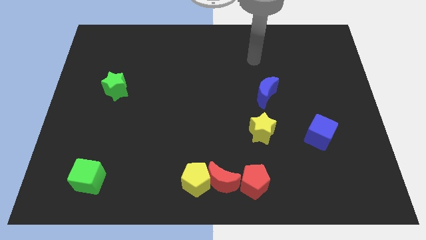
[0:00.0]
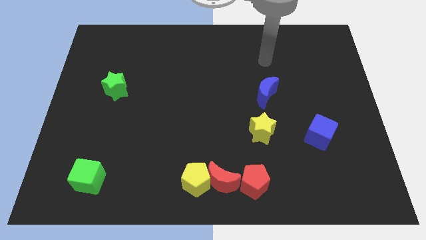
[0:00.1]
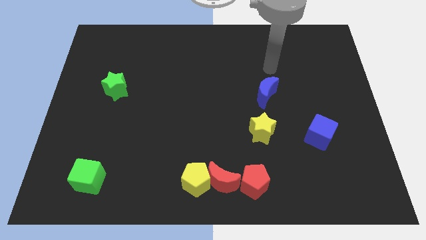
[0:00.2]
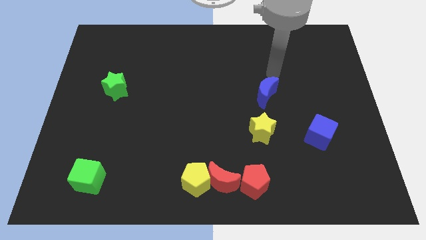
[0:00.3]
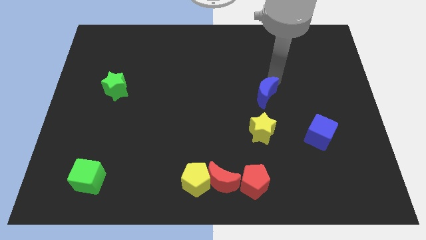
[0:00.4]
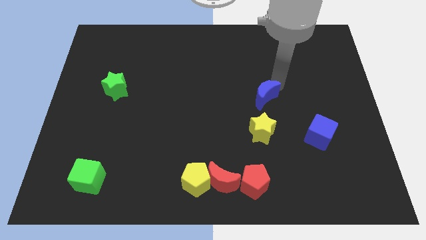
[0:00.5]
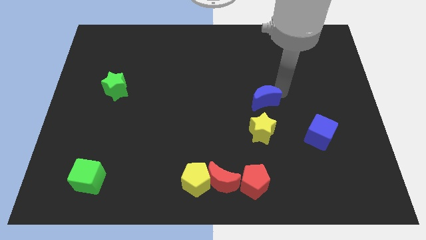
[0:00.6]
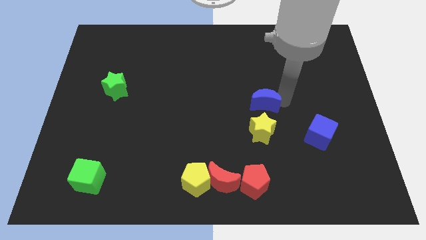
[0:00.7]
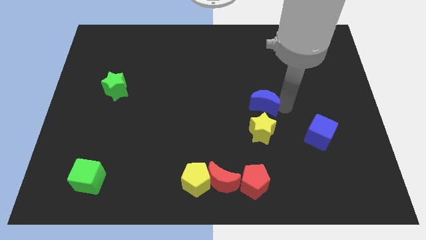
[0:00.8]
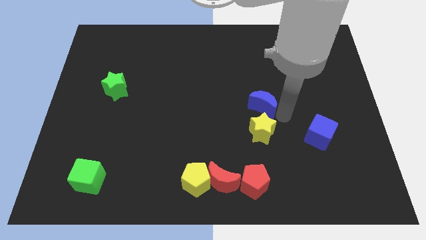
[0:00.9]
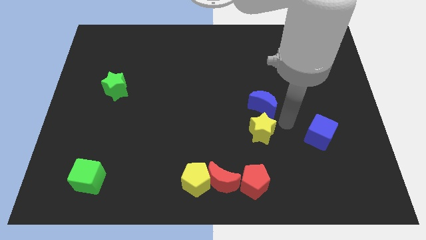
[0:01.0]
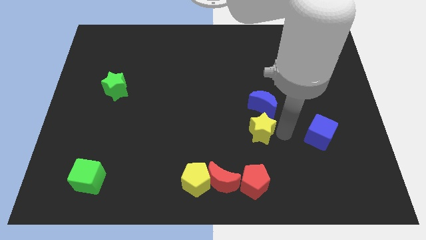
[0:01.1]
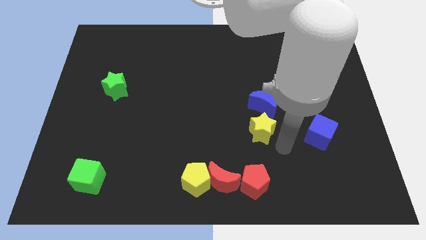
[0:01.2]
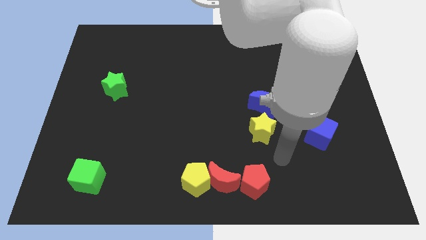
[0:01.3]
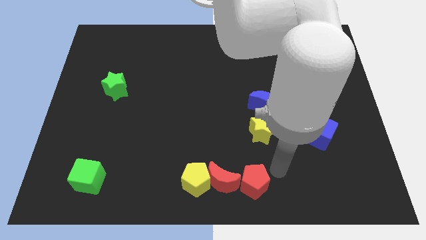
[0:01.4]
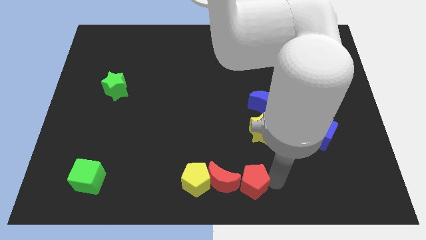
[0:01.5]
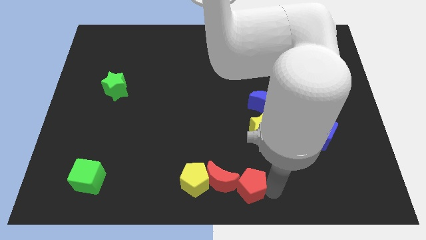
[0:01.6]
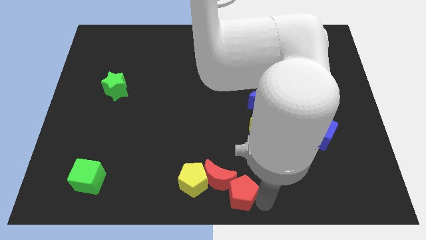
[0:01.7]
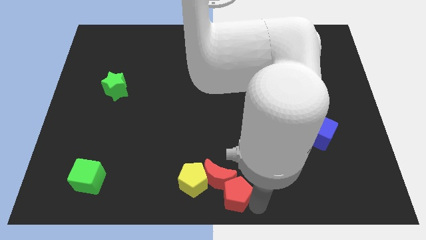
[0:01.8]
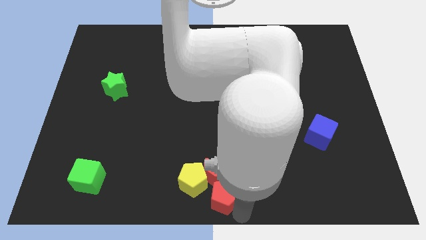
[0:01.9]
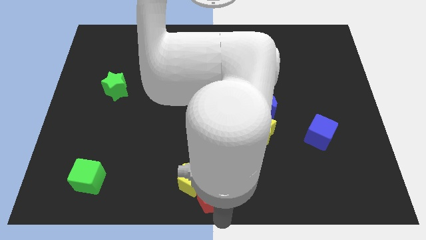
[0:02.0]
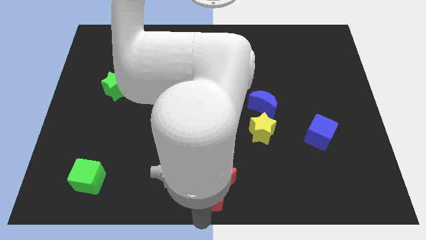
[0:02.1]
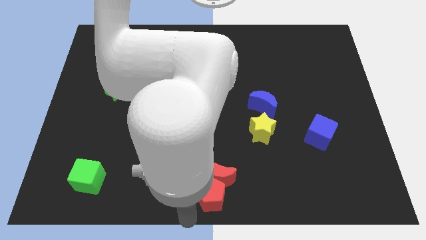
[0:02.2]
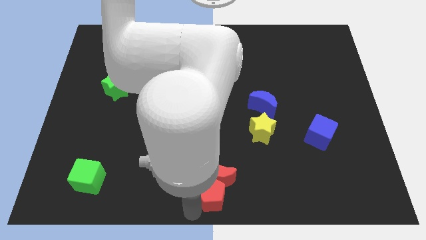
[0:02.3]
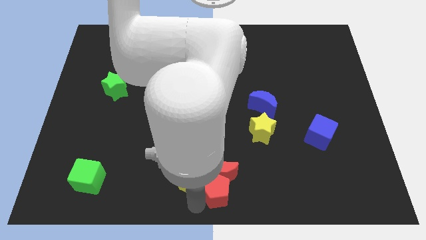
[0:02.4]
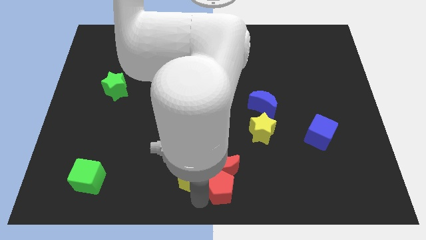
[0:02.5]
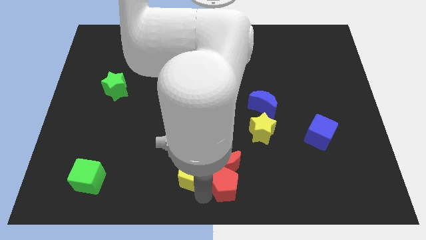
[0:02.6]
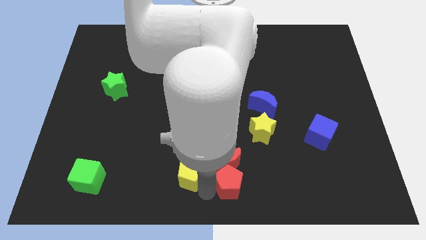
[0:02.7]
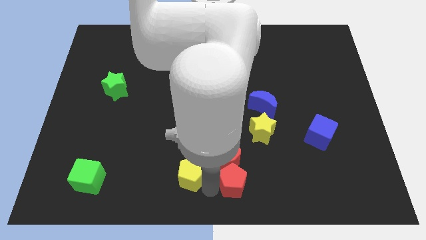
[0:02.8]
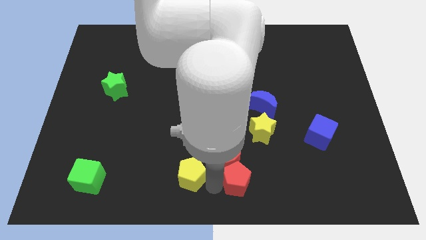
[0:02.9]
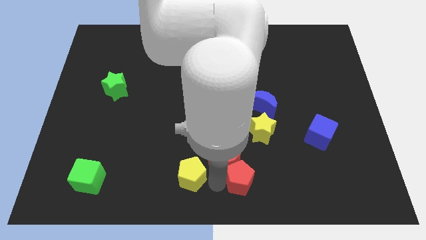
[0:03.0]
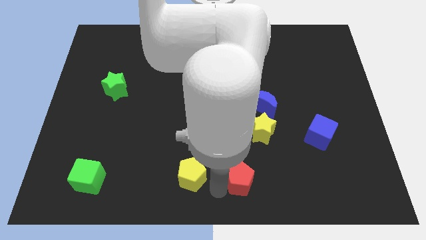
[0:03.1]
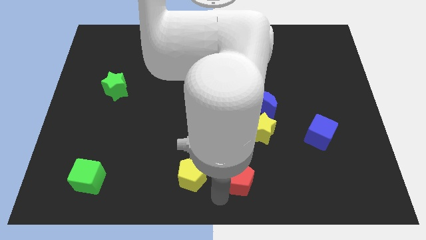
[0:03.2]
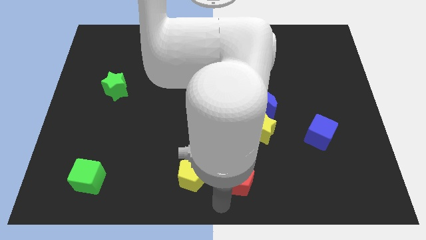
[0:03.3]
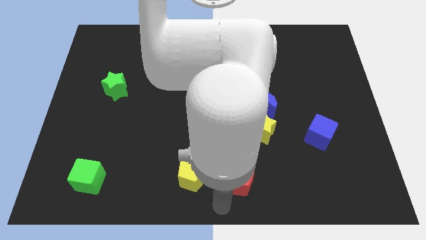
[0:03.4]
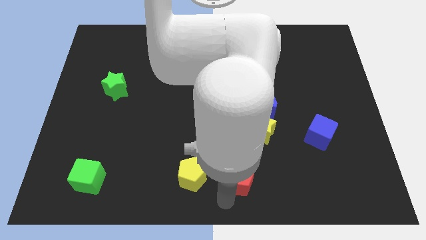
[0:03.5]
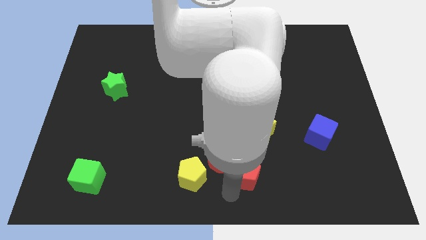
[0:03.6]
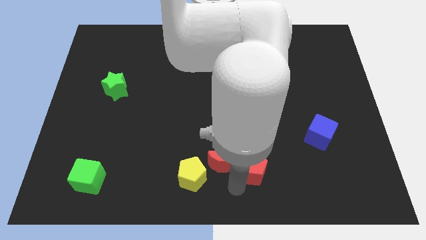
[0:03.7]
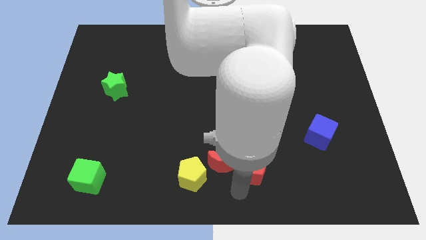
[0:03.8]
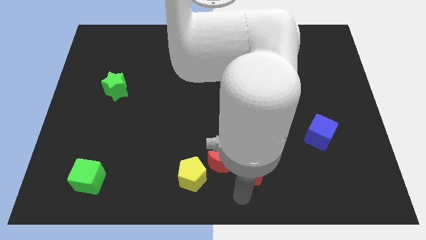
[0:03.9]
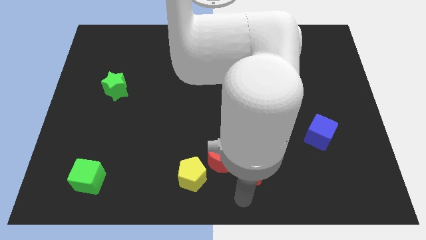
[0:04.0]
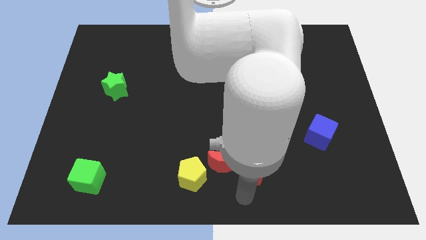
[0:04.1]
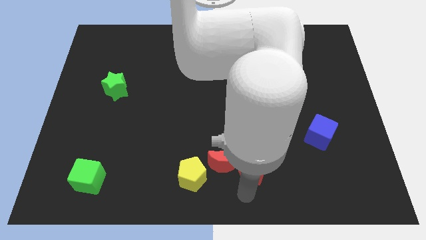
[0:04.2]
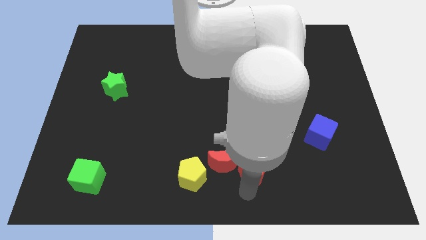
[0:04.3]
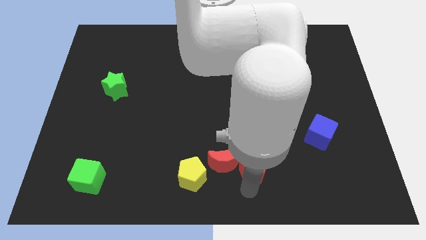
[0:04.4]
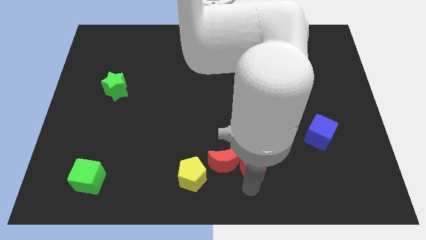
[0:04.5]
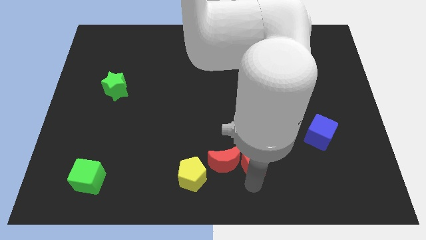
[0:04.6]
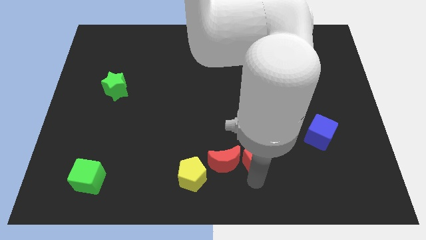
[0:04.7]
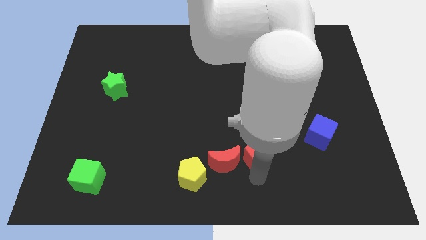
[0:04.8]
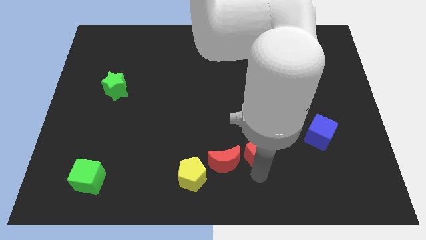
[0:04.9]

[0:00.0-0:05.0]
push the red pentagon next to the yellow star

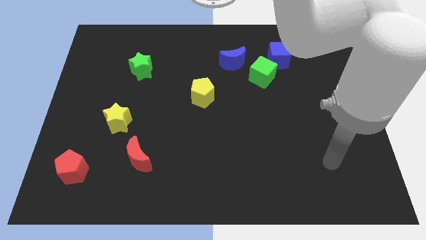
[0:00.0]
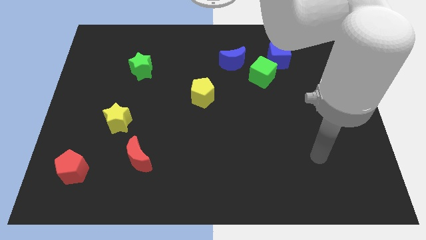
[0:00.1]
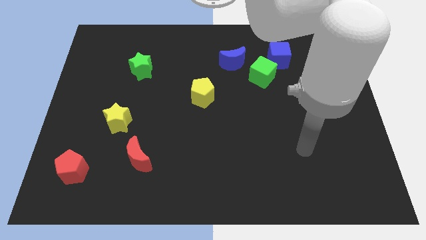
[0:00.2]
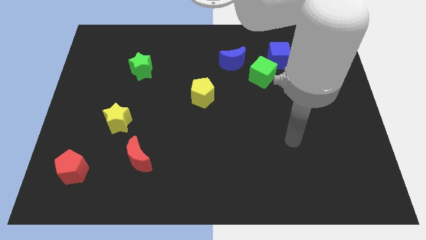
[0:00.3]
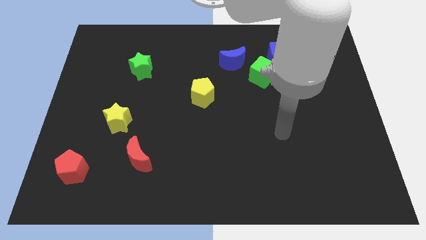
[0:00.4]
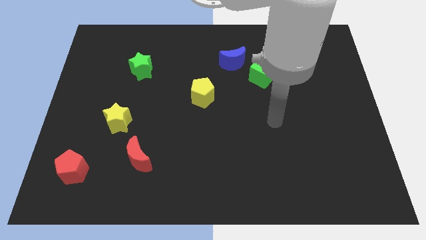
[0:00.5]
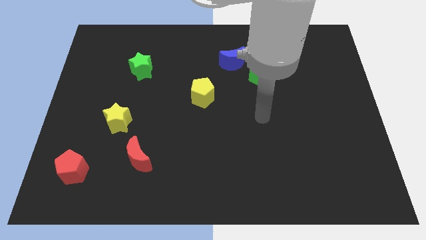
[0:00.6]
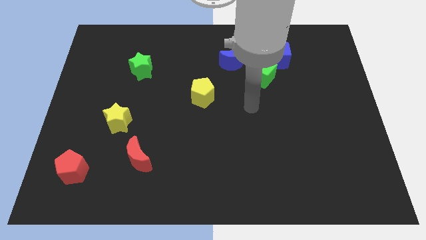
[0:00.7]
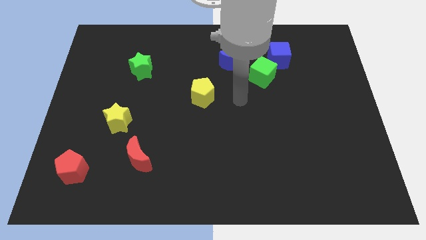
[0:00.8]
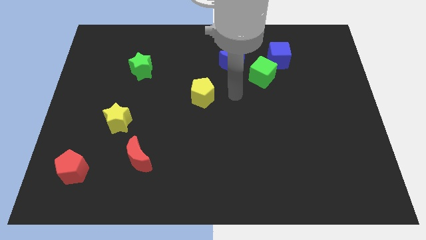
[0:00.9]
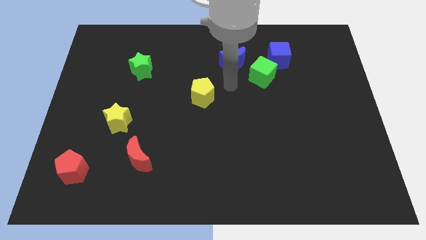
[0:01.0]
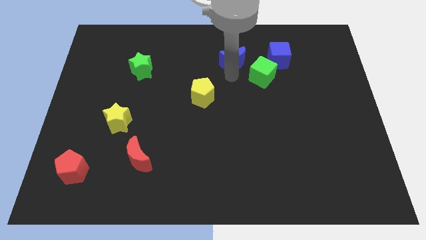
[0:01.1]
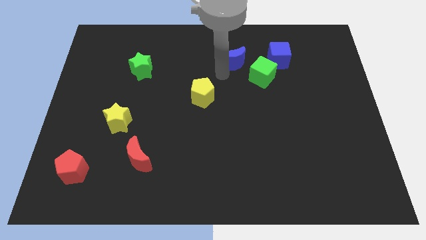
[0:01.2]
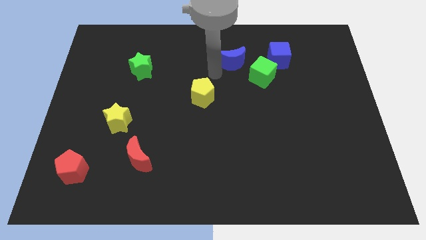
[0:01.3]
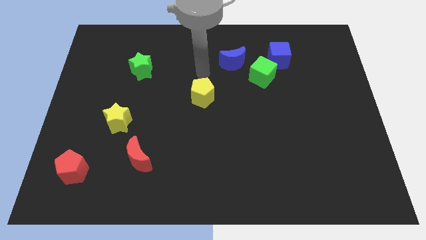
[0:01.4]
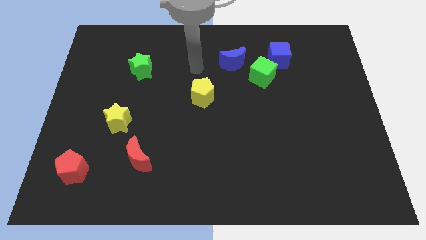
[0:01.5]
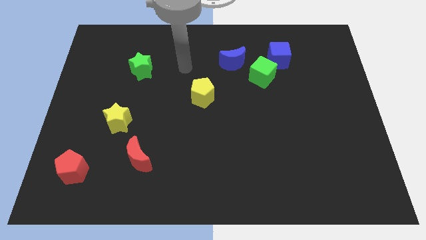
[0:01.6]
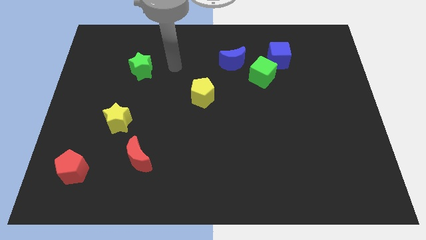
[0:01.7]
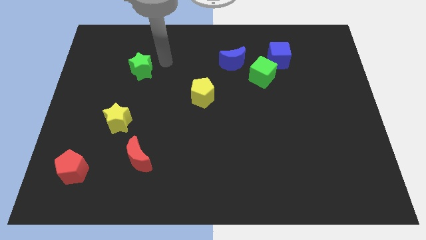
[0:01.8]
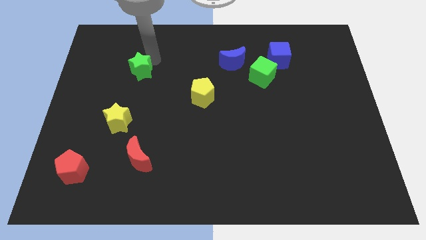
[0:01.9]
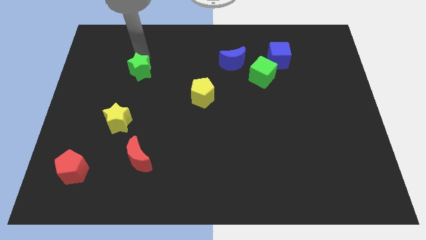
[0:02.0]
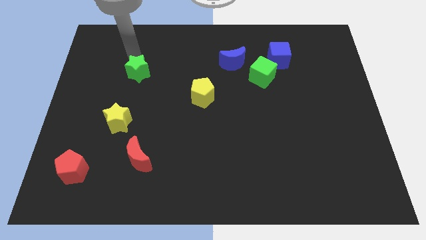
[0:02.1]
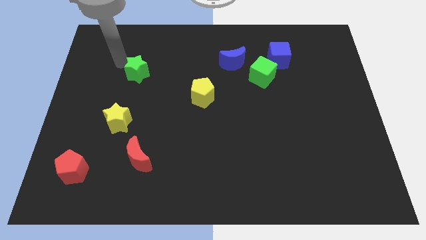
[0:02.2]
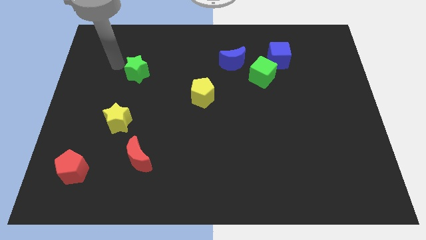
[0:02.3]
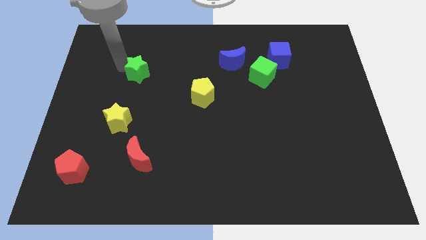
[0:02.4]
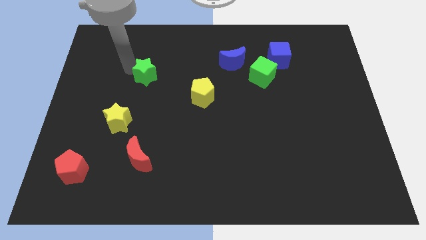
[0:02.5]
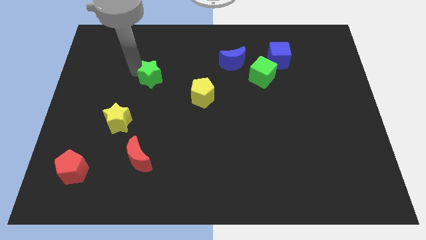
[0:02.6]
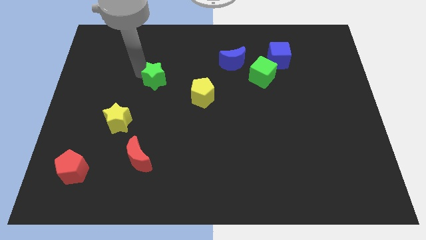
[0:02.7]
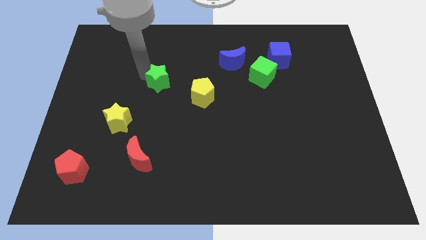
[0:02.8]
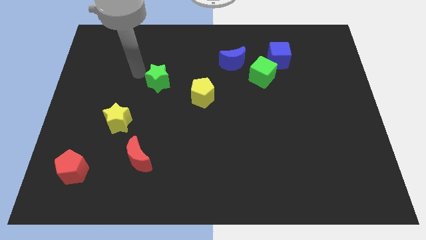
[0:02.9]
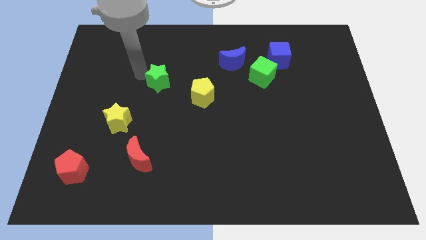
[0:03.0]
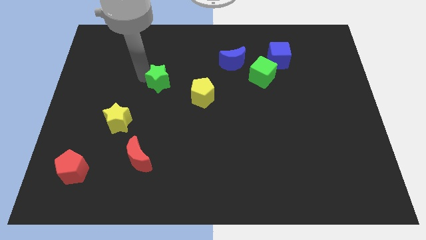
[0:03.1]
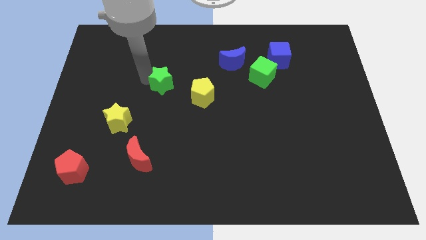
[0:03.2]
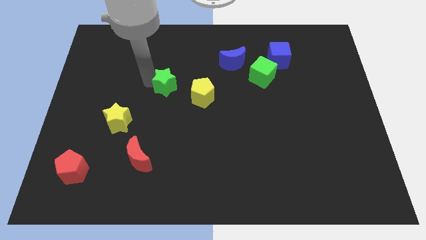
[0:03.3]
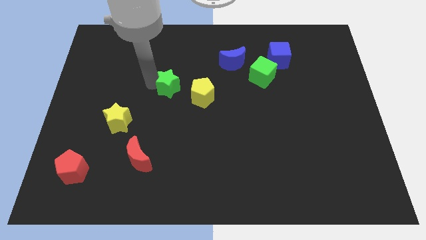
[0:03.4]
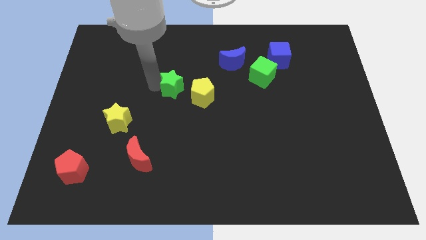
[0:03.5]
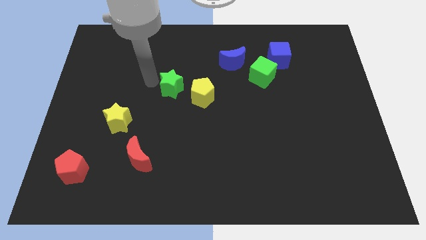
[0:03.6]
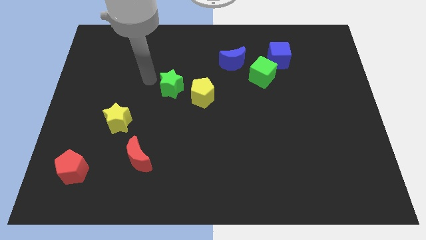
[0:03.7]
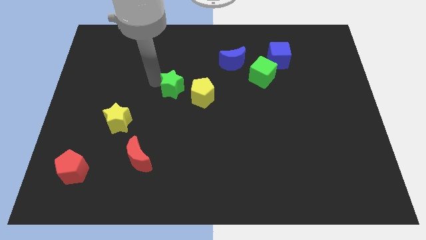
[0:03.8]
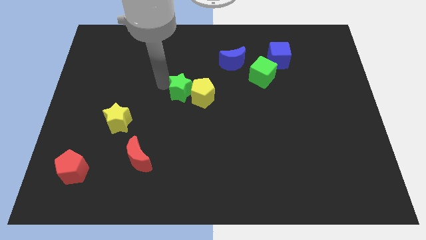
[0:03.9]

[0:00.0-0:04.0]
push the green star towards the yellow pentagon
